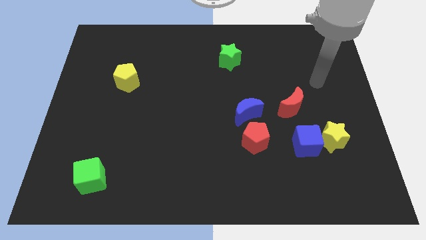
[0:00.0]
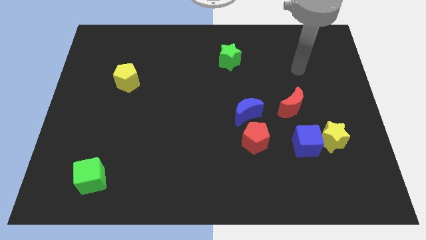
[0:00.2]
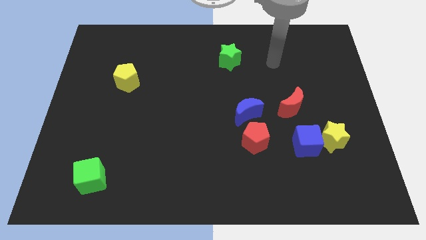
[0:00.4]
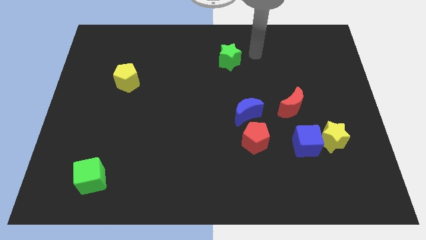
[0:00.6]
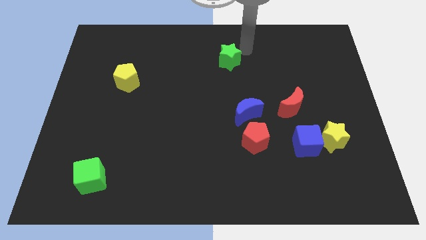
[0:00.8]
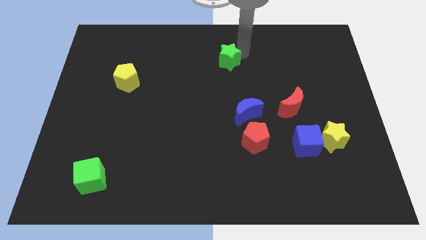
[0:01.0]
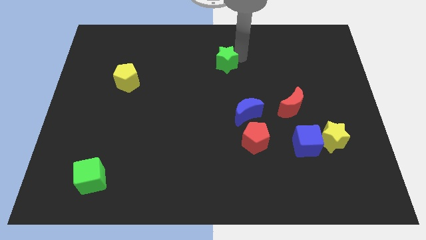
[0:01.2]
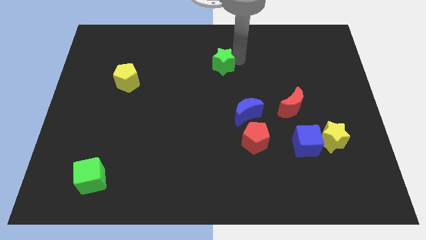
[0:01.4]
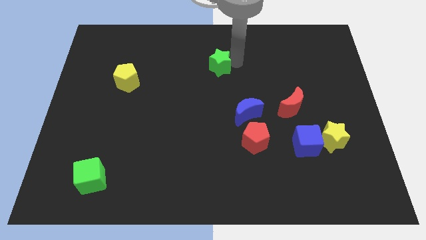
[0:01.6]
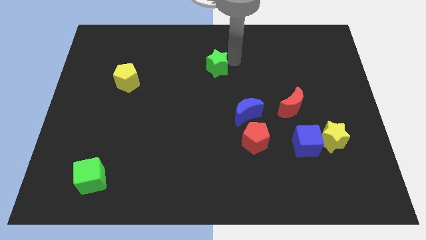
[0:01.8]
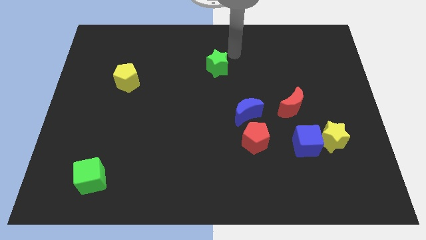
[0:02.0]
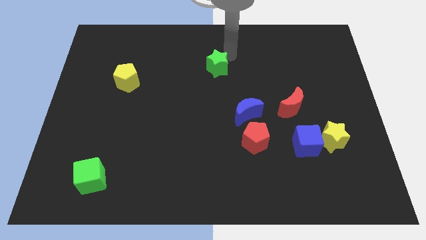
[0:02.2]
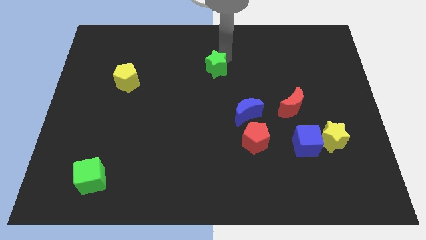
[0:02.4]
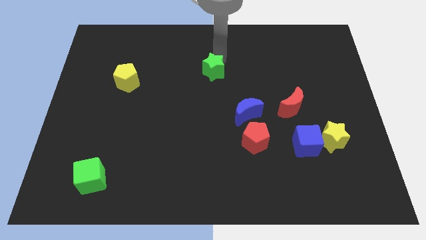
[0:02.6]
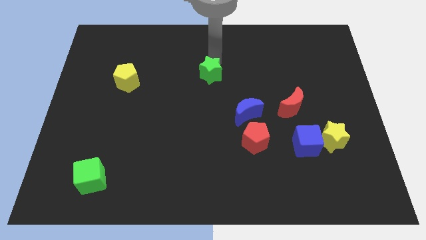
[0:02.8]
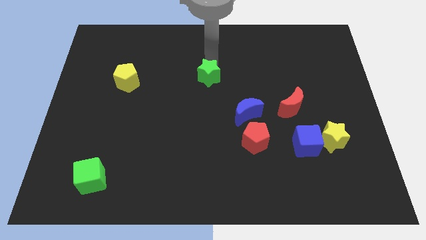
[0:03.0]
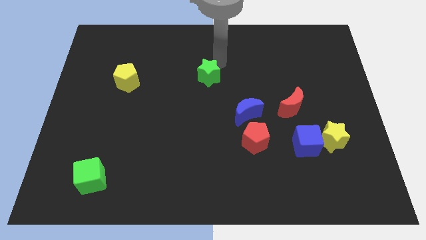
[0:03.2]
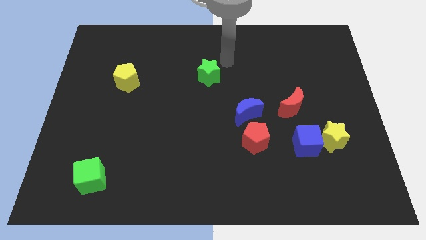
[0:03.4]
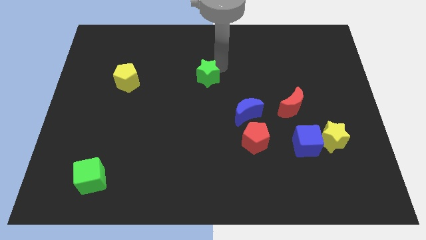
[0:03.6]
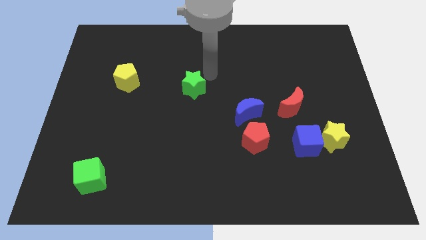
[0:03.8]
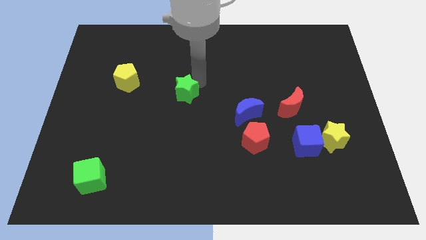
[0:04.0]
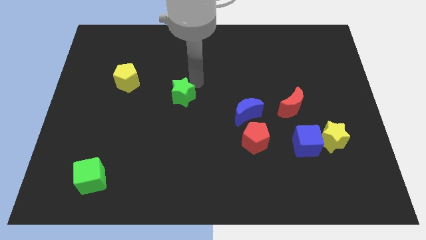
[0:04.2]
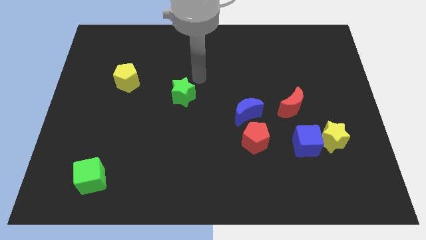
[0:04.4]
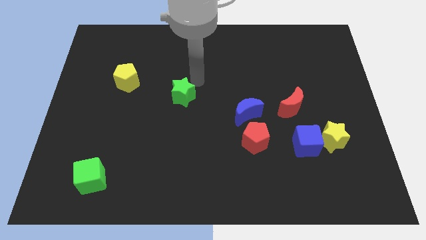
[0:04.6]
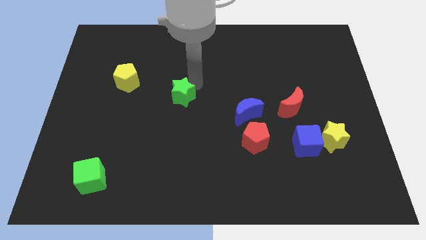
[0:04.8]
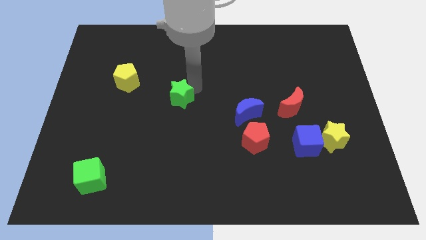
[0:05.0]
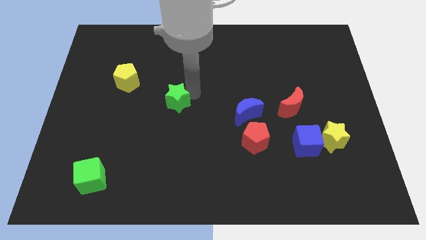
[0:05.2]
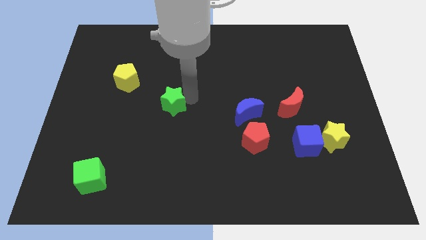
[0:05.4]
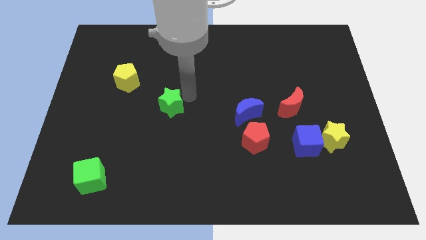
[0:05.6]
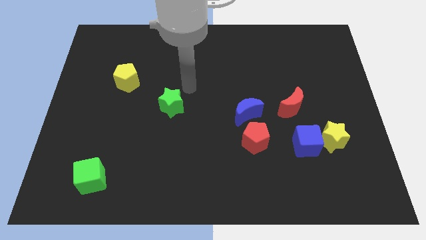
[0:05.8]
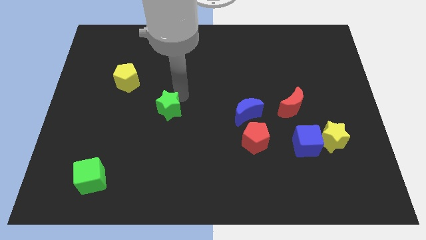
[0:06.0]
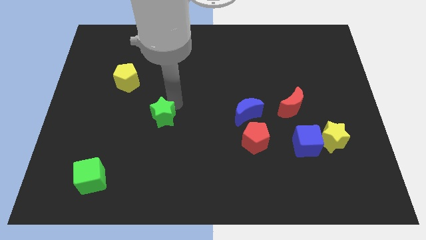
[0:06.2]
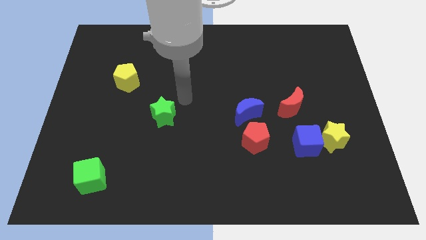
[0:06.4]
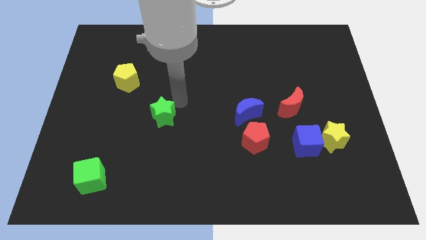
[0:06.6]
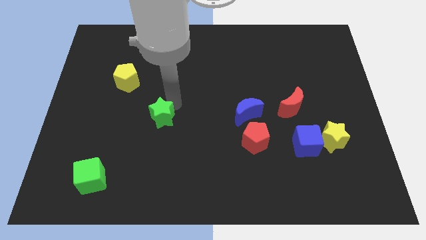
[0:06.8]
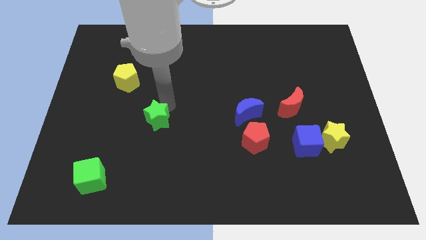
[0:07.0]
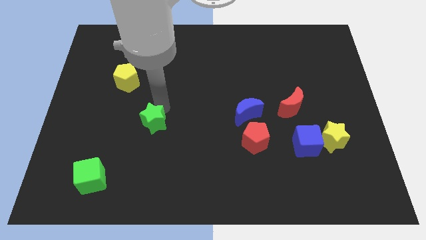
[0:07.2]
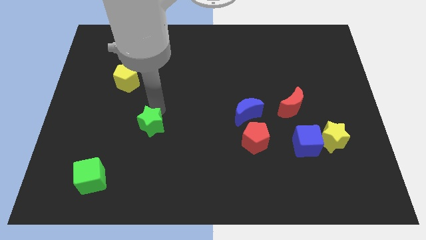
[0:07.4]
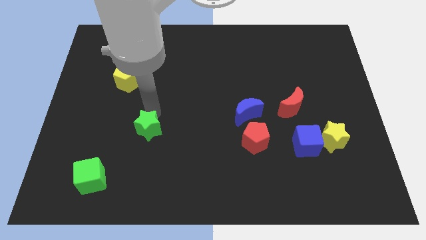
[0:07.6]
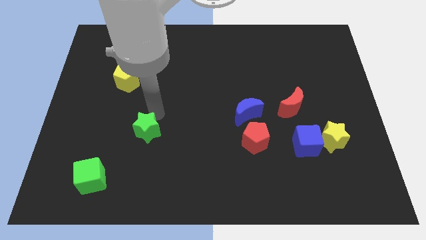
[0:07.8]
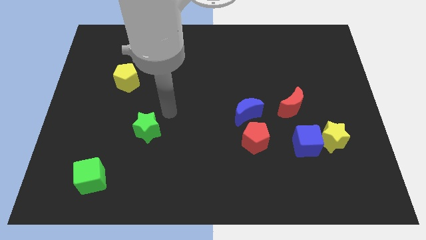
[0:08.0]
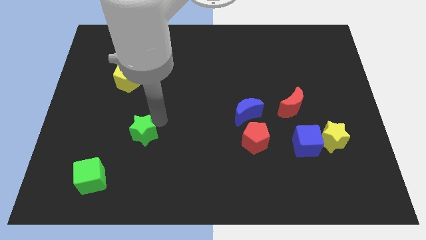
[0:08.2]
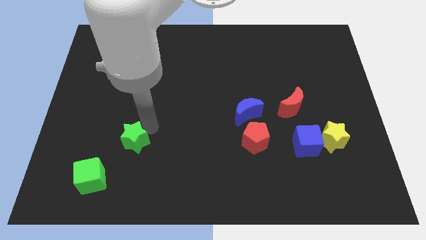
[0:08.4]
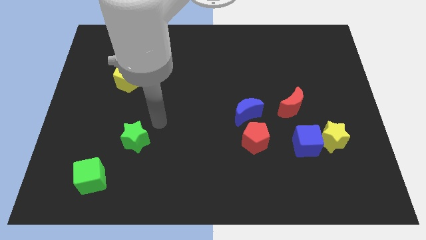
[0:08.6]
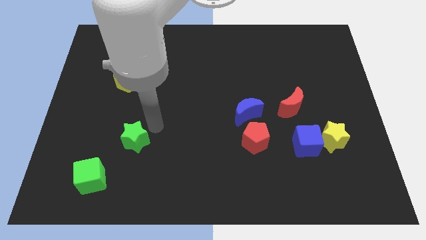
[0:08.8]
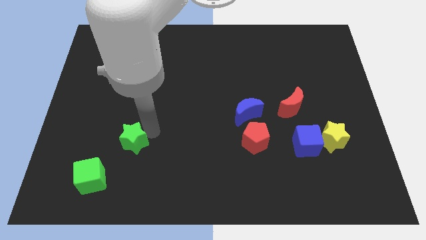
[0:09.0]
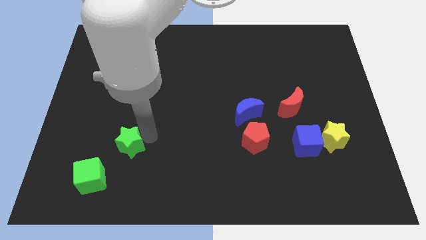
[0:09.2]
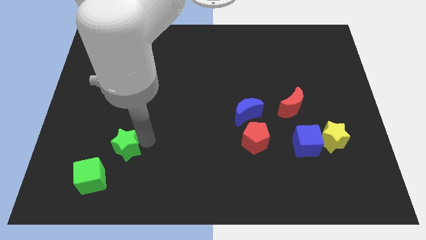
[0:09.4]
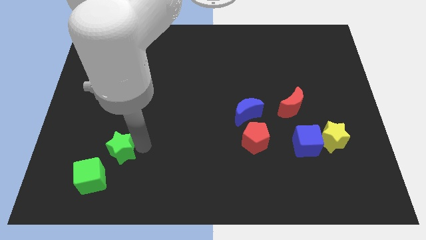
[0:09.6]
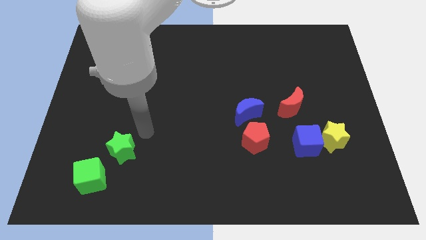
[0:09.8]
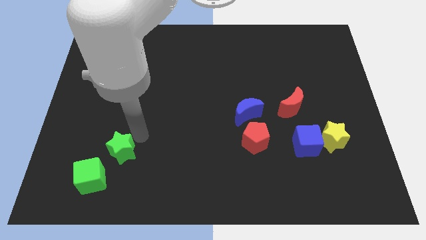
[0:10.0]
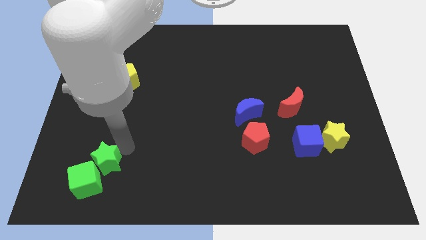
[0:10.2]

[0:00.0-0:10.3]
put the green star close to the green cube

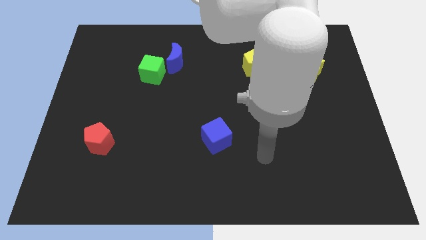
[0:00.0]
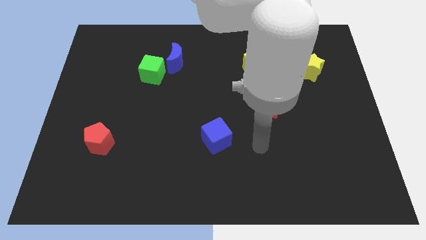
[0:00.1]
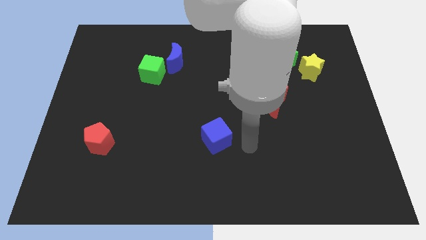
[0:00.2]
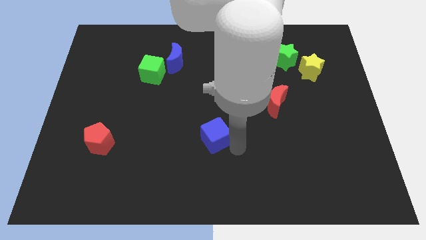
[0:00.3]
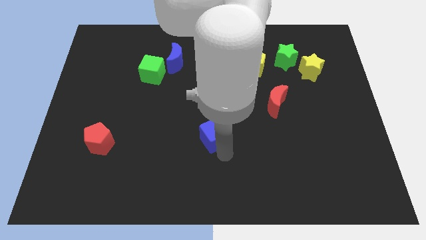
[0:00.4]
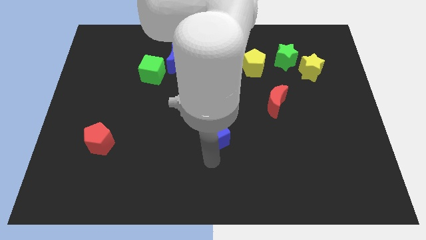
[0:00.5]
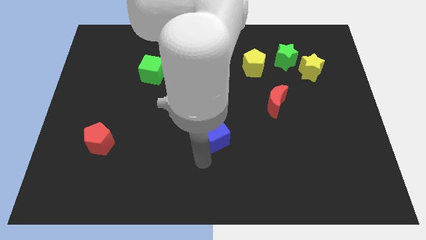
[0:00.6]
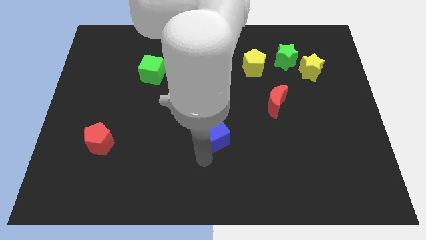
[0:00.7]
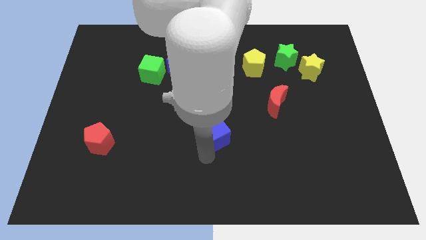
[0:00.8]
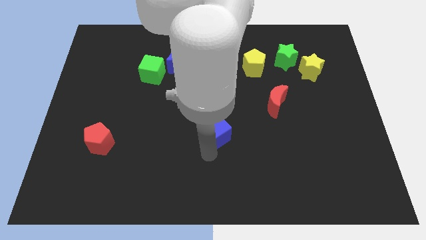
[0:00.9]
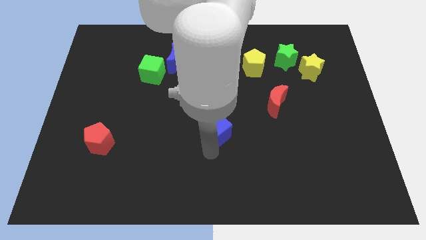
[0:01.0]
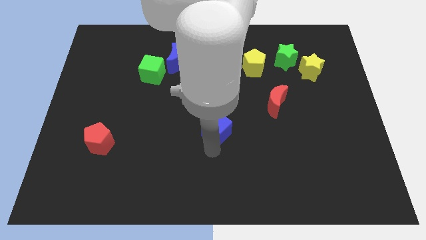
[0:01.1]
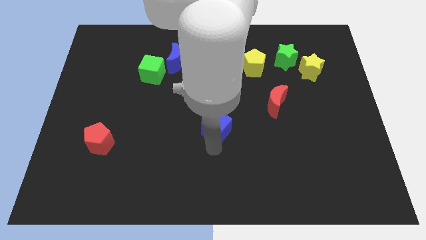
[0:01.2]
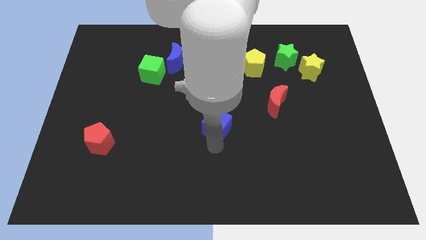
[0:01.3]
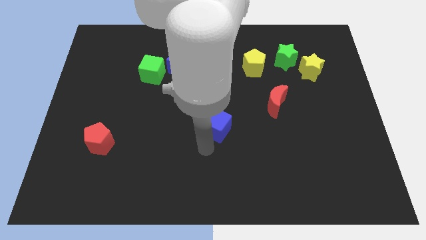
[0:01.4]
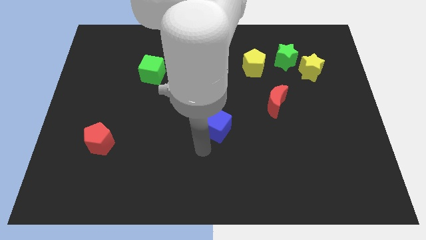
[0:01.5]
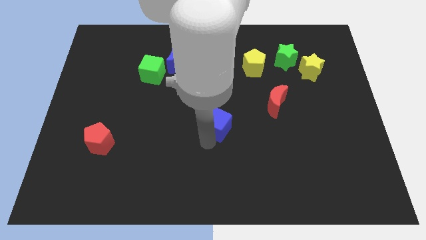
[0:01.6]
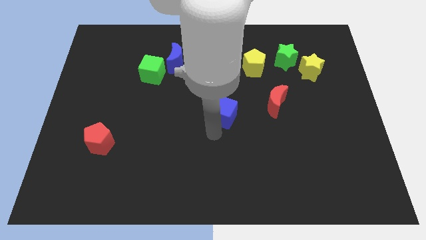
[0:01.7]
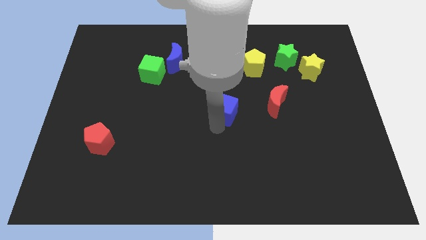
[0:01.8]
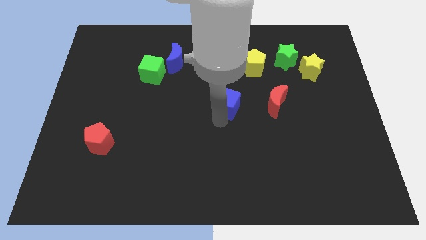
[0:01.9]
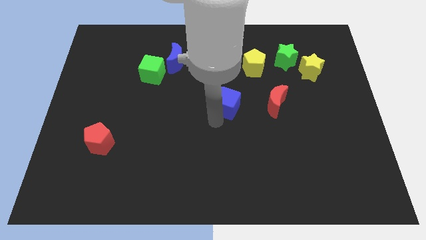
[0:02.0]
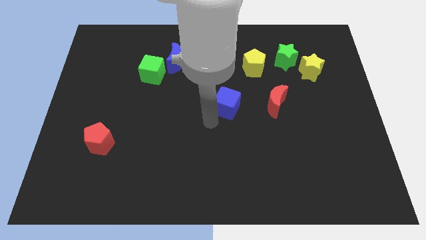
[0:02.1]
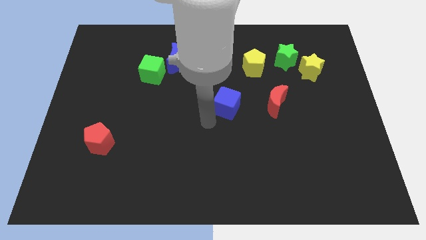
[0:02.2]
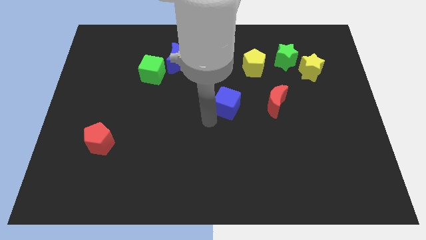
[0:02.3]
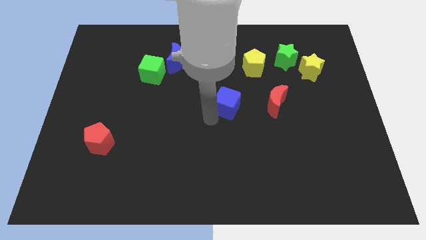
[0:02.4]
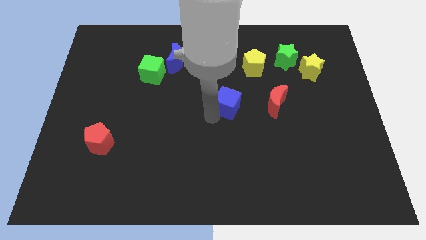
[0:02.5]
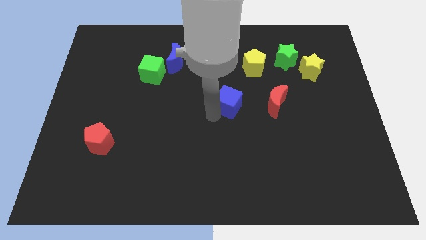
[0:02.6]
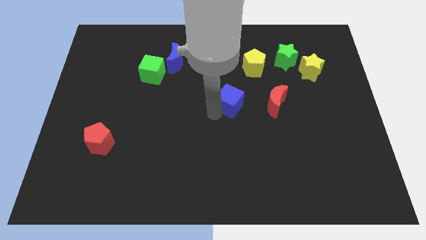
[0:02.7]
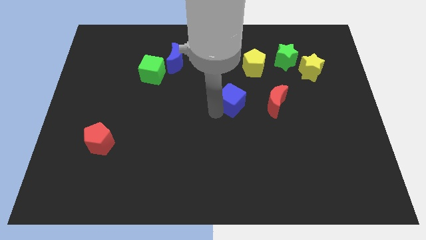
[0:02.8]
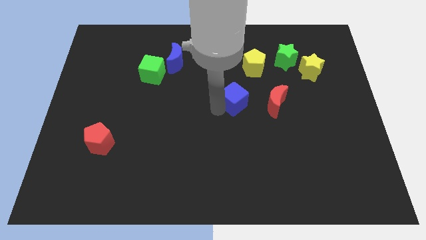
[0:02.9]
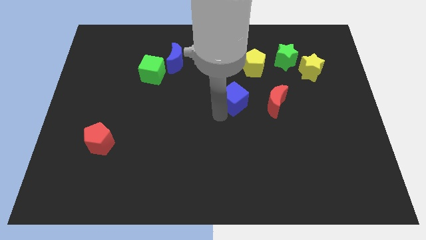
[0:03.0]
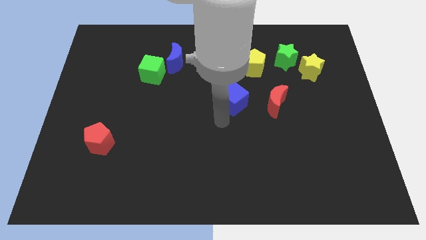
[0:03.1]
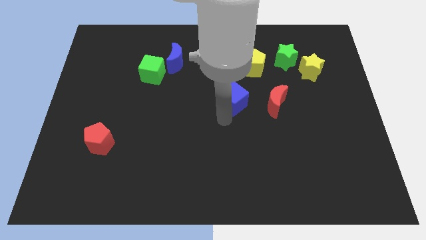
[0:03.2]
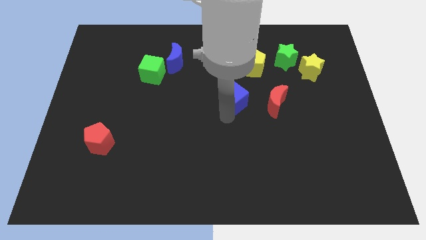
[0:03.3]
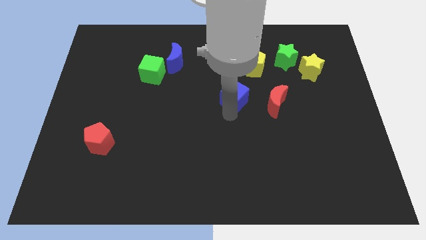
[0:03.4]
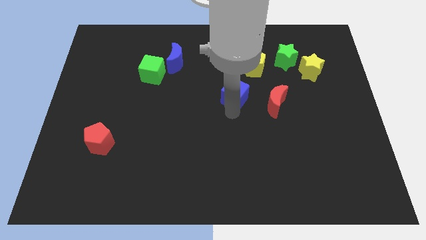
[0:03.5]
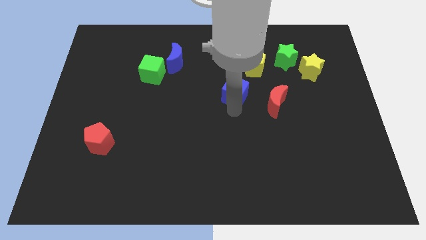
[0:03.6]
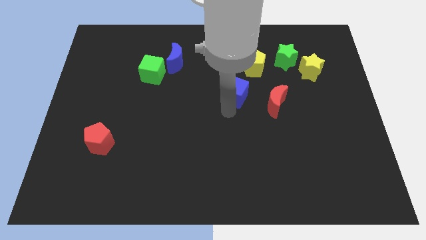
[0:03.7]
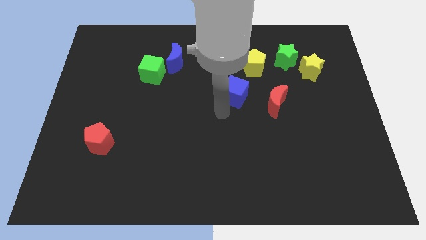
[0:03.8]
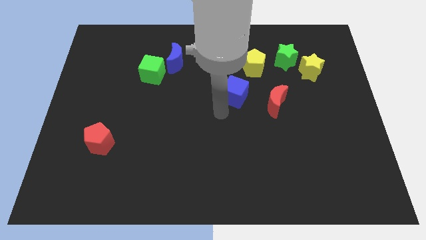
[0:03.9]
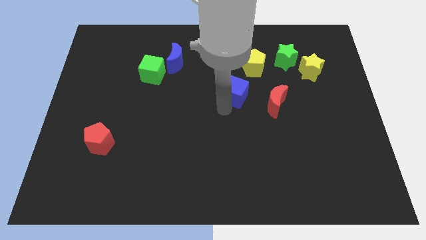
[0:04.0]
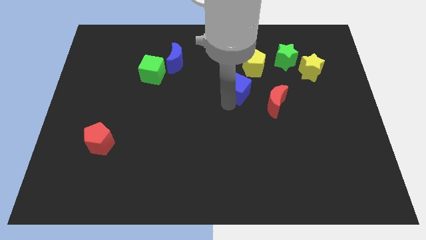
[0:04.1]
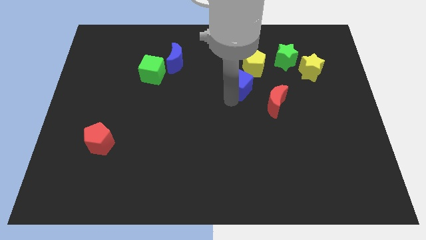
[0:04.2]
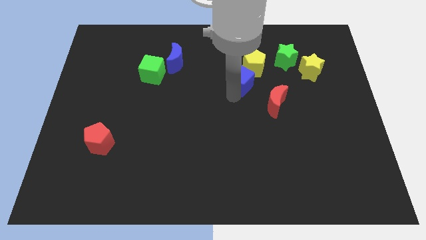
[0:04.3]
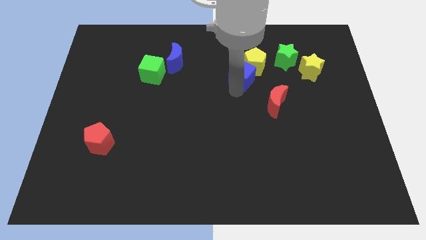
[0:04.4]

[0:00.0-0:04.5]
move the blue cube towards the yellow pentagon
